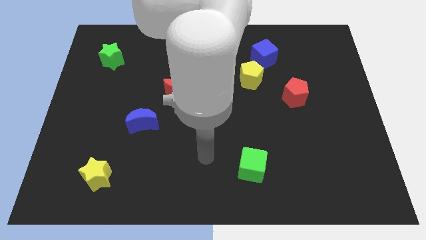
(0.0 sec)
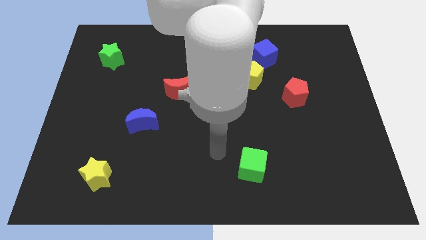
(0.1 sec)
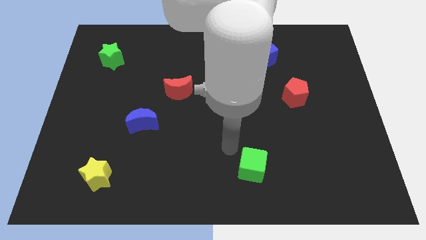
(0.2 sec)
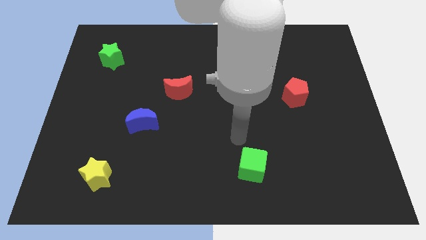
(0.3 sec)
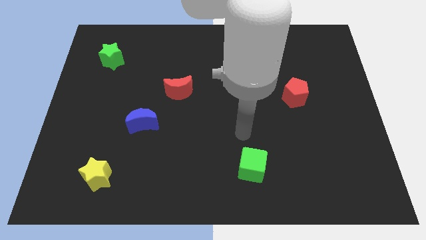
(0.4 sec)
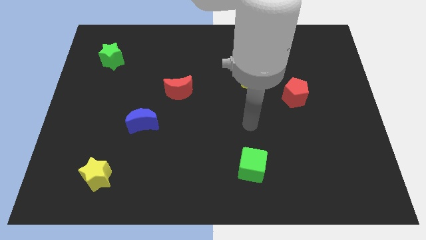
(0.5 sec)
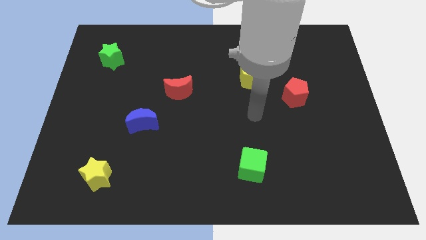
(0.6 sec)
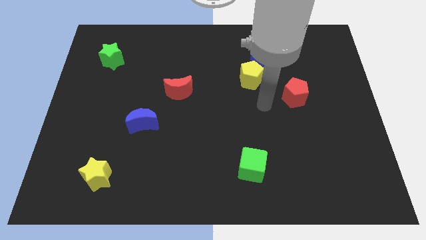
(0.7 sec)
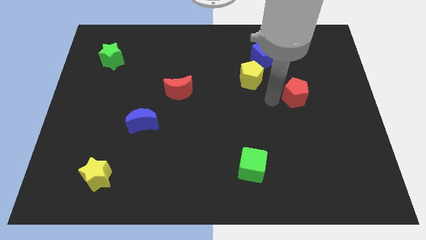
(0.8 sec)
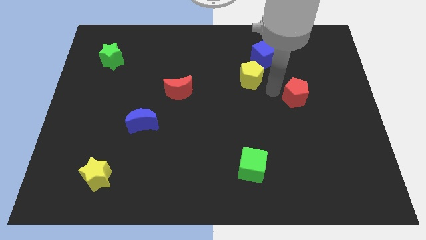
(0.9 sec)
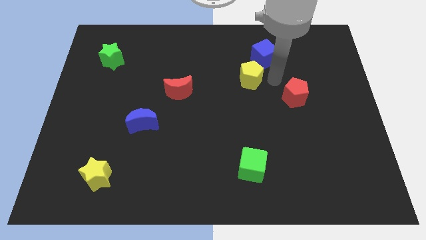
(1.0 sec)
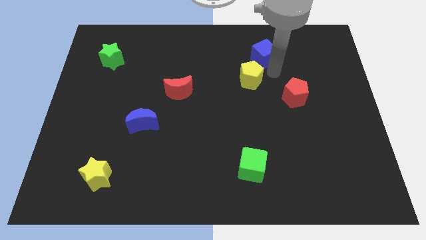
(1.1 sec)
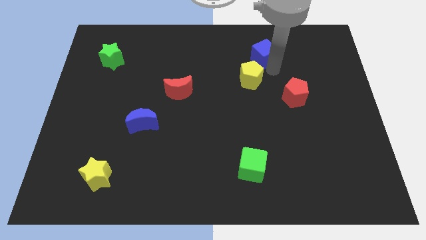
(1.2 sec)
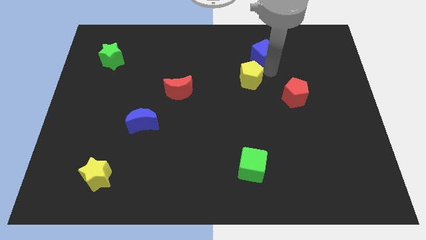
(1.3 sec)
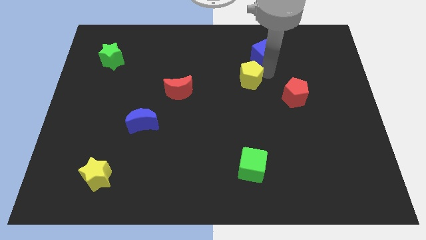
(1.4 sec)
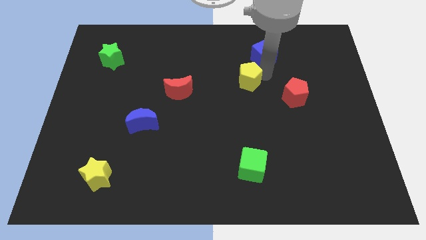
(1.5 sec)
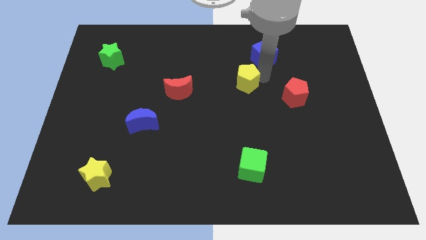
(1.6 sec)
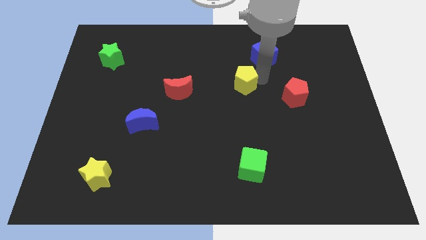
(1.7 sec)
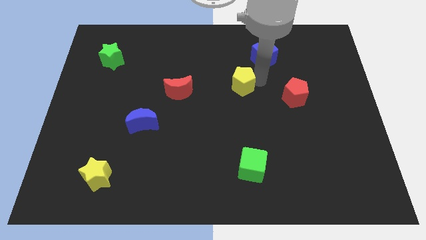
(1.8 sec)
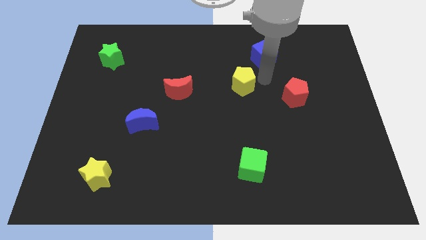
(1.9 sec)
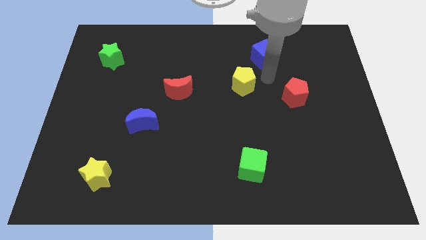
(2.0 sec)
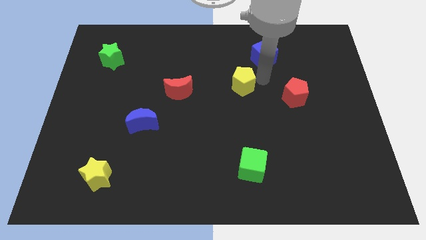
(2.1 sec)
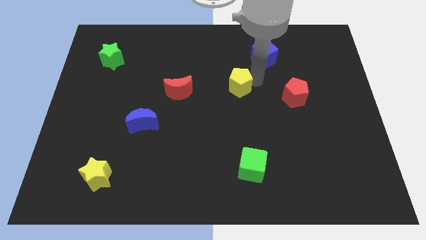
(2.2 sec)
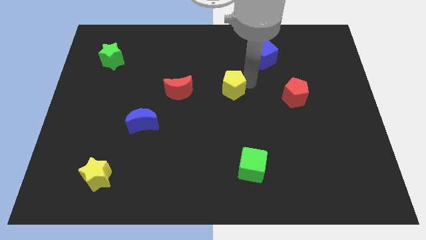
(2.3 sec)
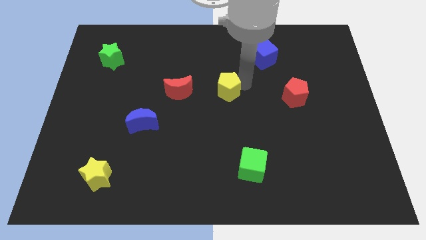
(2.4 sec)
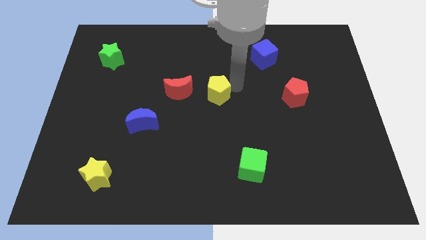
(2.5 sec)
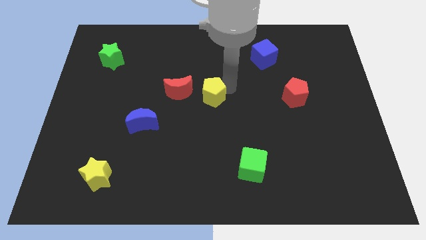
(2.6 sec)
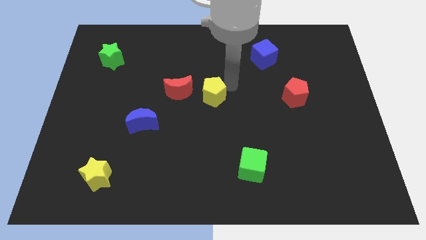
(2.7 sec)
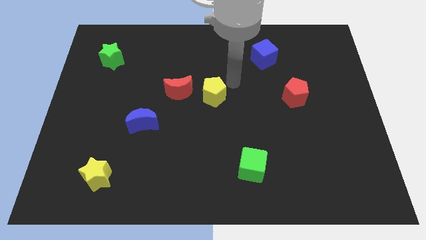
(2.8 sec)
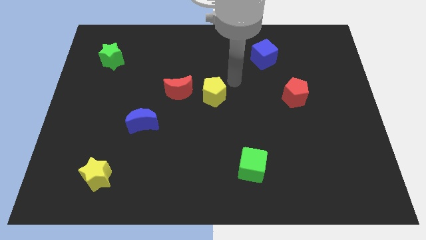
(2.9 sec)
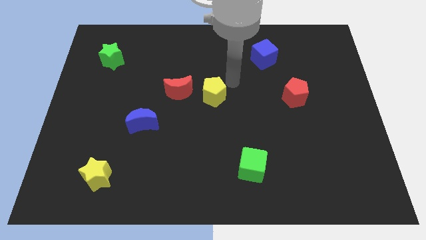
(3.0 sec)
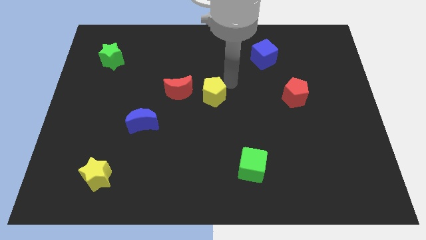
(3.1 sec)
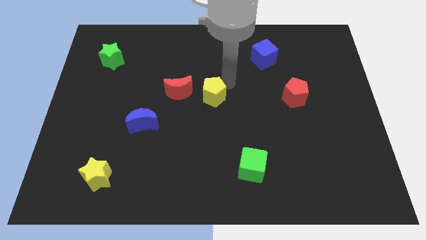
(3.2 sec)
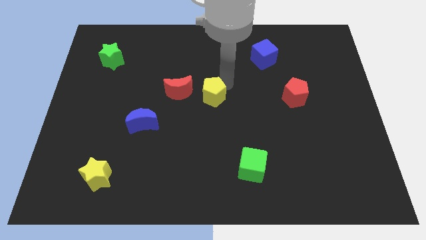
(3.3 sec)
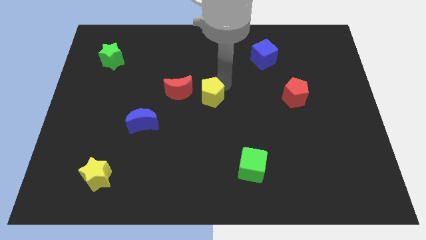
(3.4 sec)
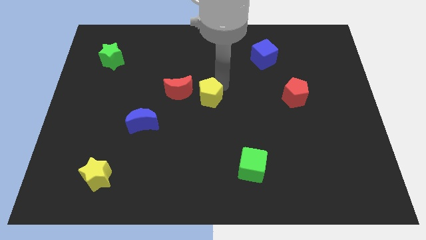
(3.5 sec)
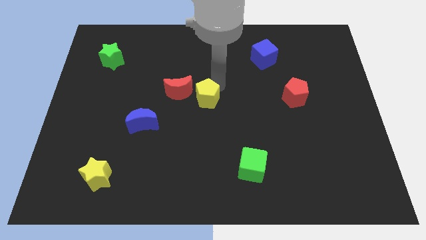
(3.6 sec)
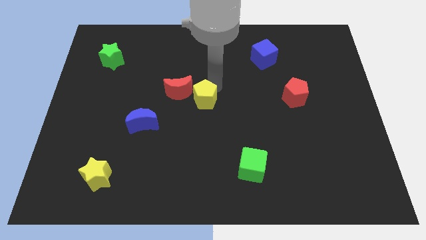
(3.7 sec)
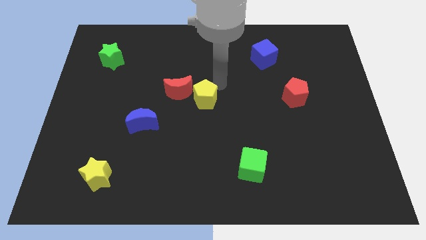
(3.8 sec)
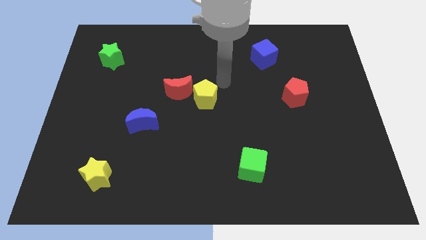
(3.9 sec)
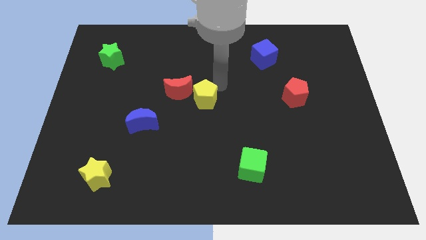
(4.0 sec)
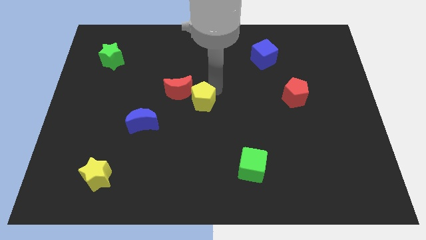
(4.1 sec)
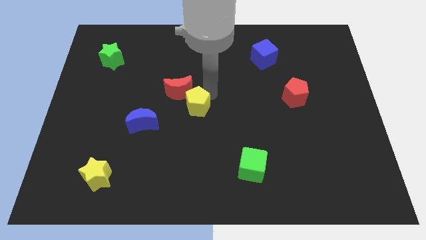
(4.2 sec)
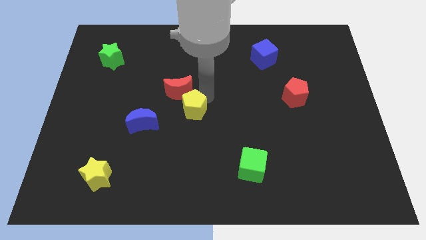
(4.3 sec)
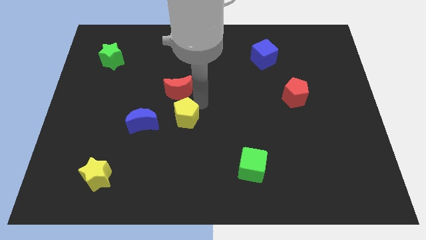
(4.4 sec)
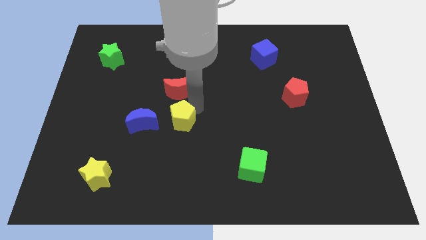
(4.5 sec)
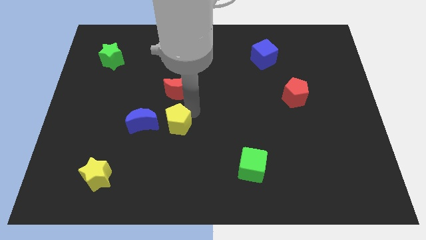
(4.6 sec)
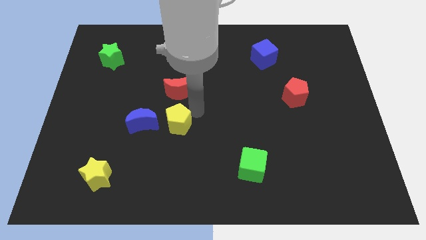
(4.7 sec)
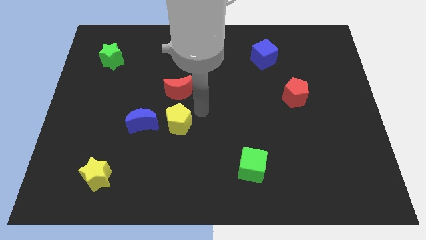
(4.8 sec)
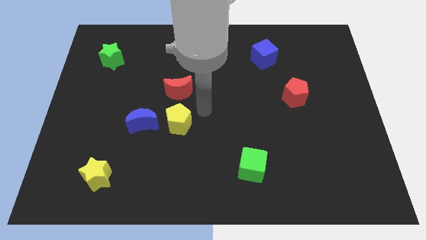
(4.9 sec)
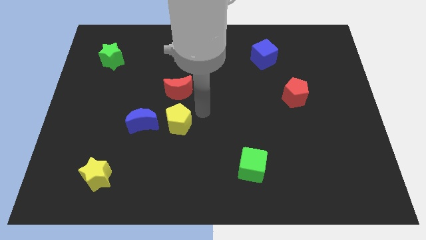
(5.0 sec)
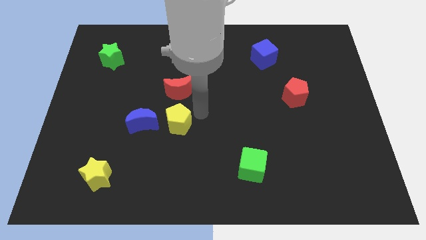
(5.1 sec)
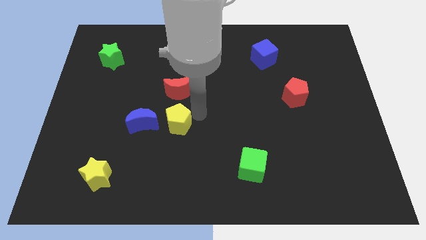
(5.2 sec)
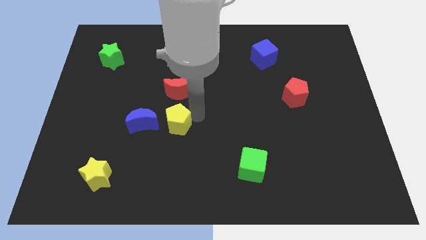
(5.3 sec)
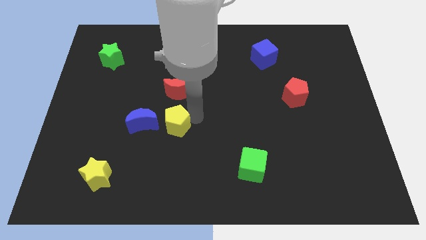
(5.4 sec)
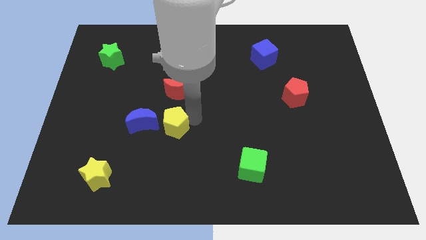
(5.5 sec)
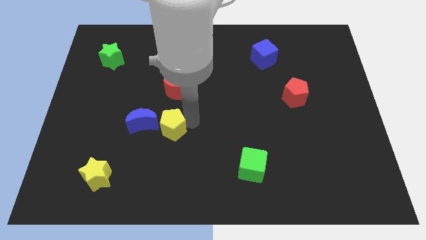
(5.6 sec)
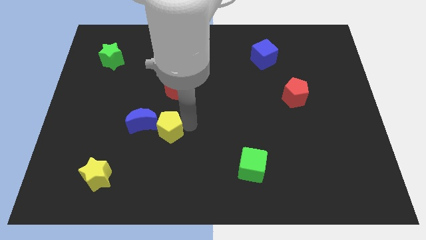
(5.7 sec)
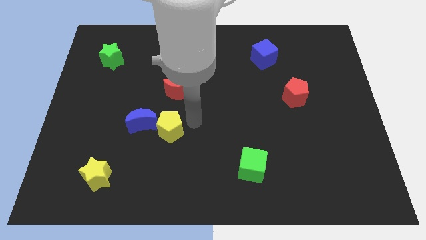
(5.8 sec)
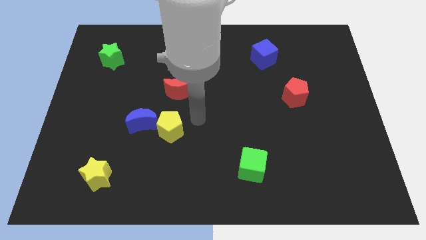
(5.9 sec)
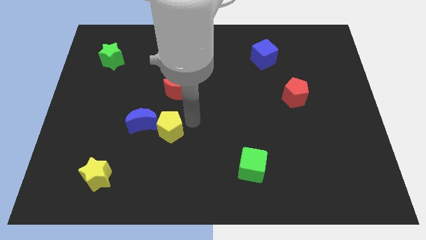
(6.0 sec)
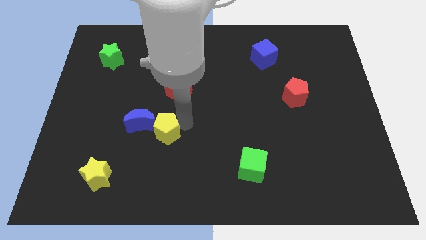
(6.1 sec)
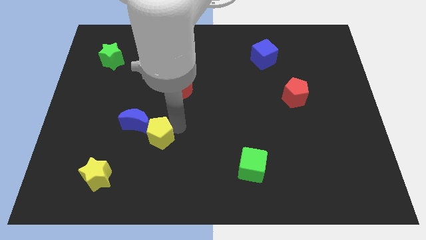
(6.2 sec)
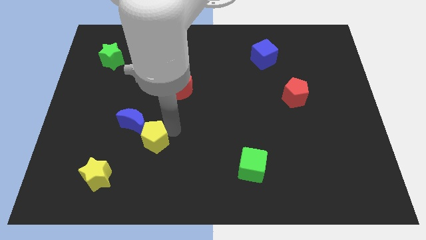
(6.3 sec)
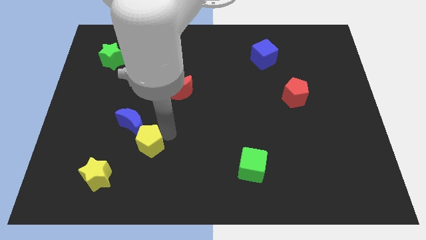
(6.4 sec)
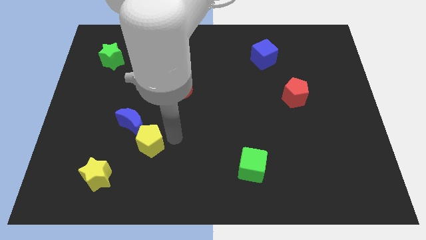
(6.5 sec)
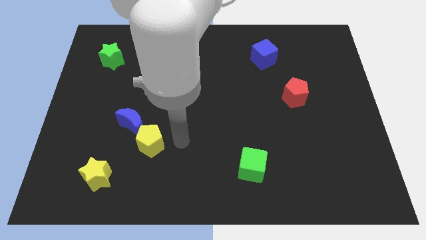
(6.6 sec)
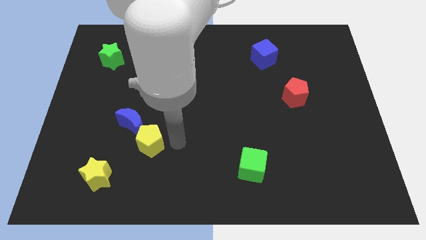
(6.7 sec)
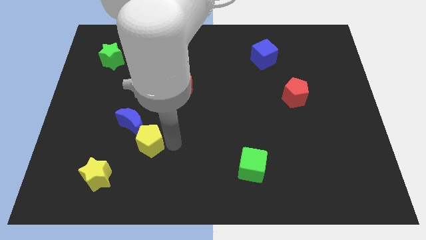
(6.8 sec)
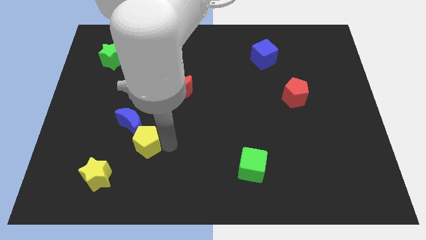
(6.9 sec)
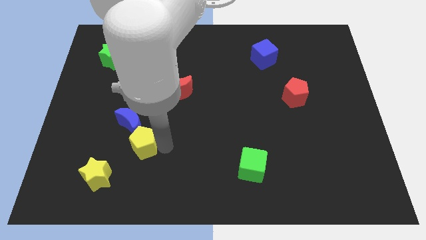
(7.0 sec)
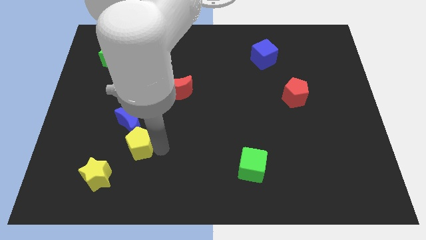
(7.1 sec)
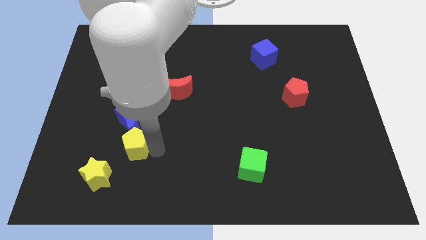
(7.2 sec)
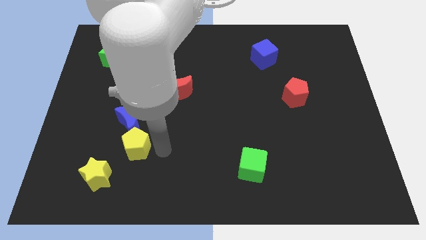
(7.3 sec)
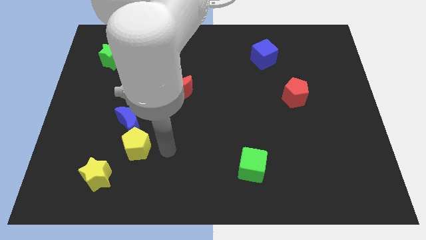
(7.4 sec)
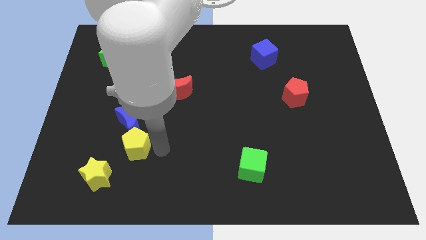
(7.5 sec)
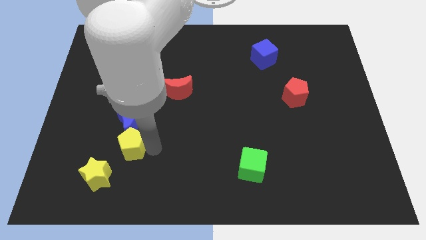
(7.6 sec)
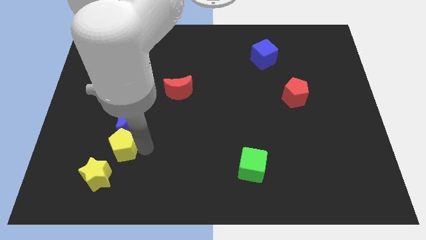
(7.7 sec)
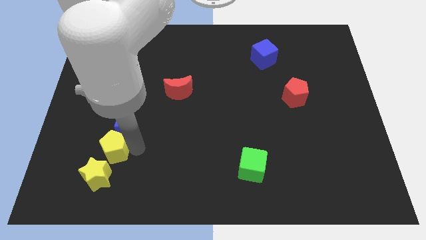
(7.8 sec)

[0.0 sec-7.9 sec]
put the yellow pentagon diagonally down and to the left of the blue moon
